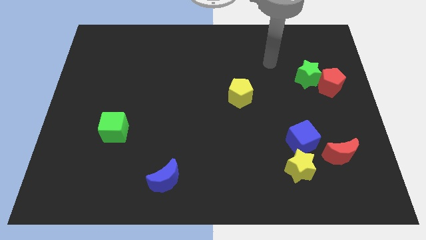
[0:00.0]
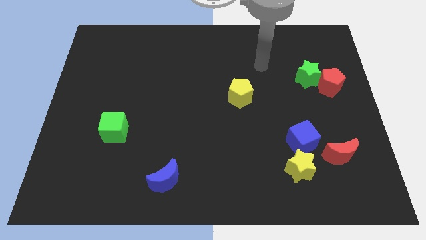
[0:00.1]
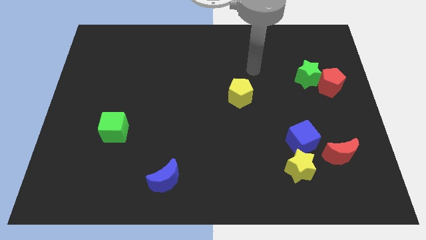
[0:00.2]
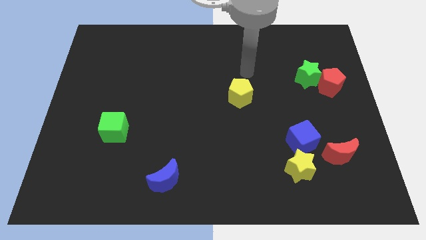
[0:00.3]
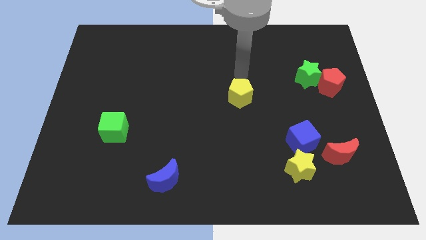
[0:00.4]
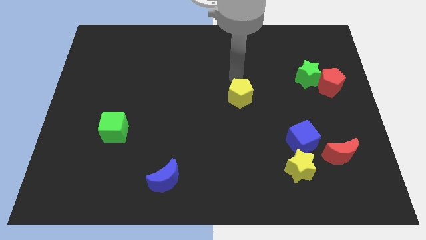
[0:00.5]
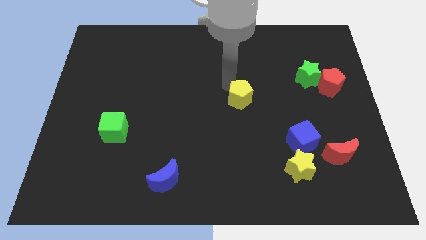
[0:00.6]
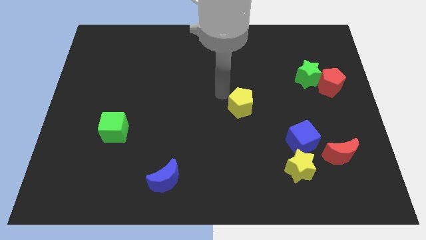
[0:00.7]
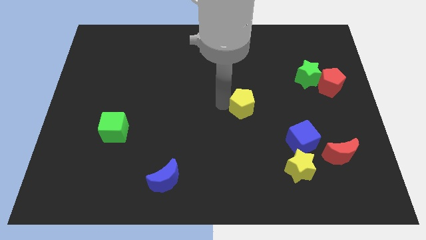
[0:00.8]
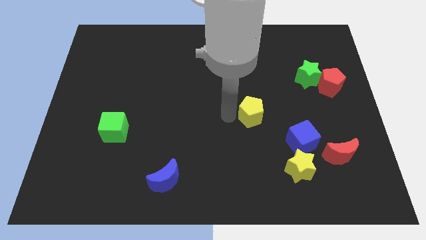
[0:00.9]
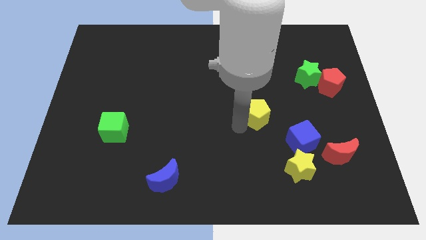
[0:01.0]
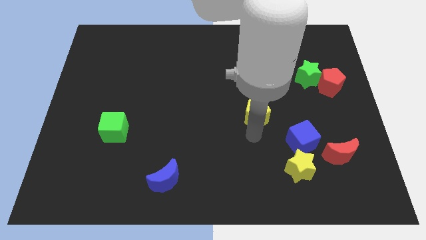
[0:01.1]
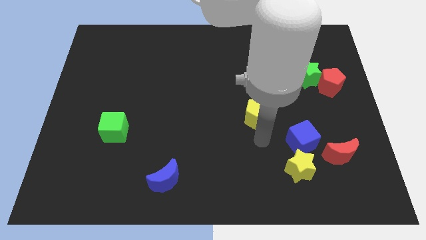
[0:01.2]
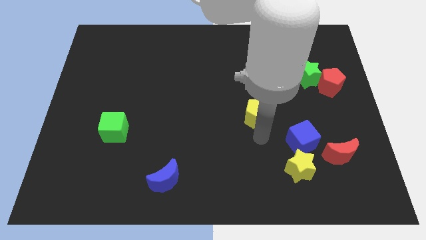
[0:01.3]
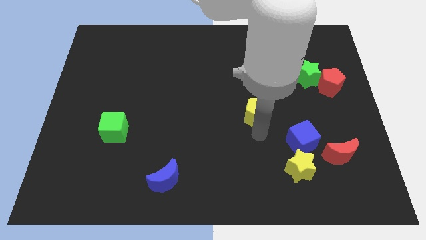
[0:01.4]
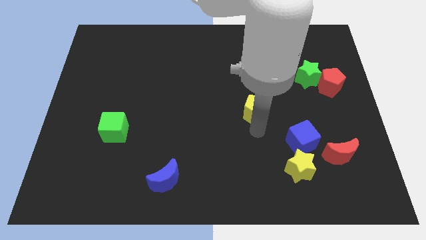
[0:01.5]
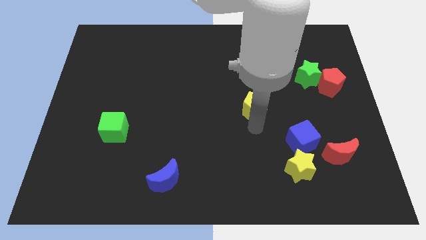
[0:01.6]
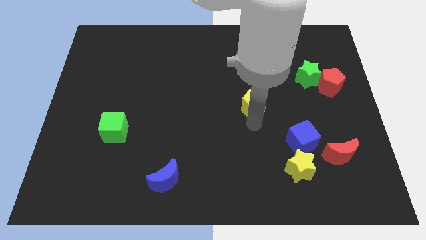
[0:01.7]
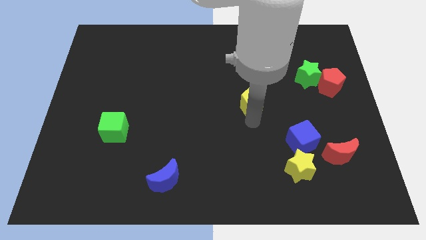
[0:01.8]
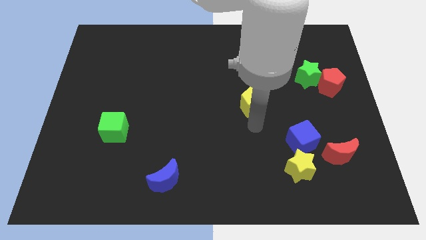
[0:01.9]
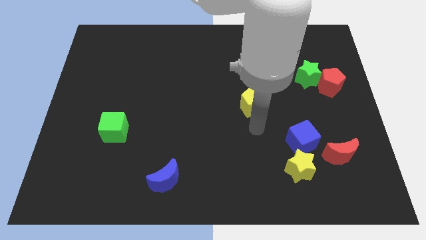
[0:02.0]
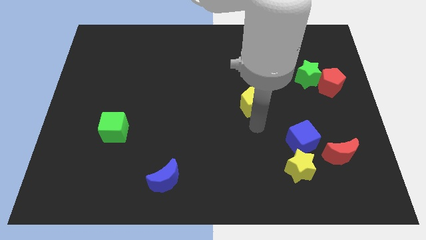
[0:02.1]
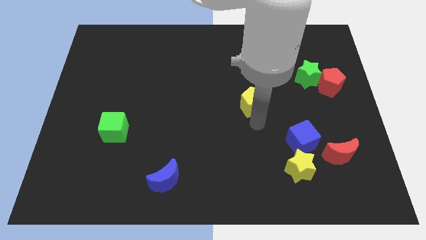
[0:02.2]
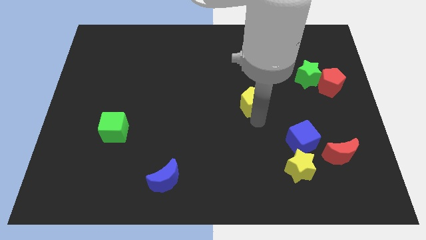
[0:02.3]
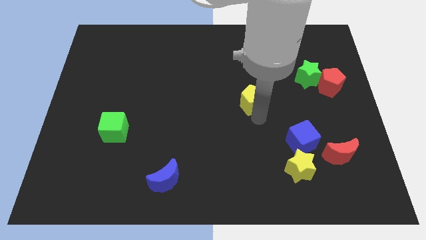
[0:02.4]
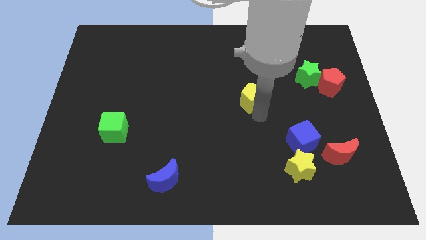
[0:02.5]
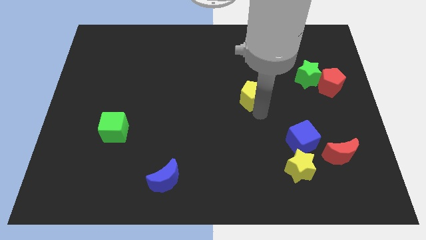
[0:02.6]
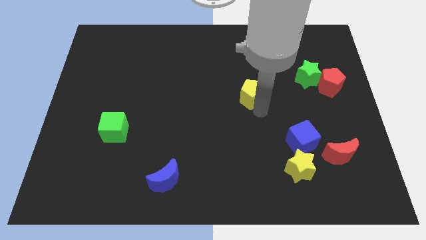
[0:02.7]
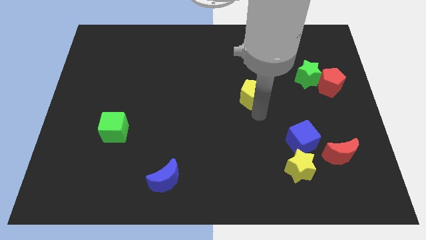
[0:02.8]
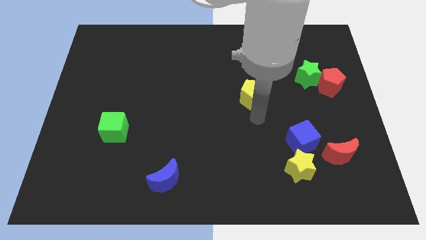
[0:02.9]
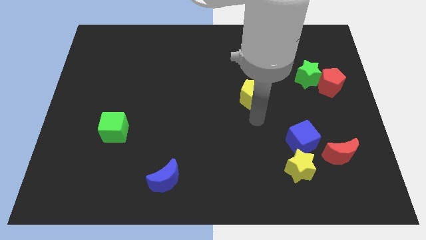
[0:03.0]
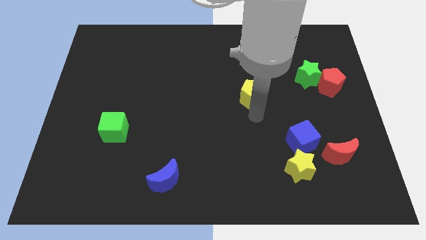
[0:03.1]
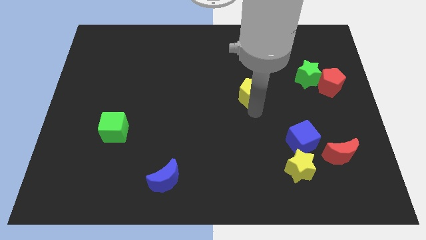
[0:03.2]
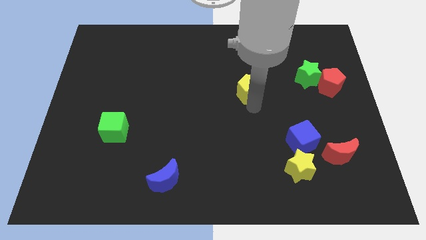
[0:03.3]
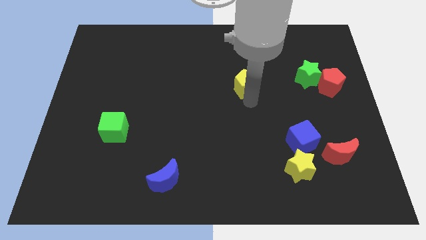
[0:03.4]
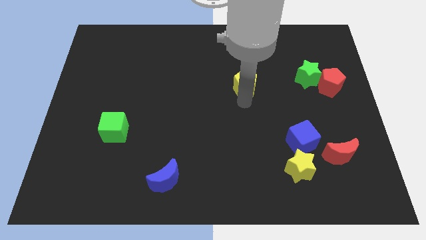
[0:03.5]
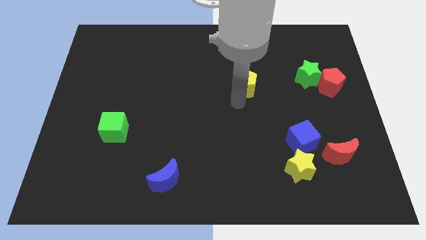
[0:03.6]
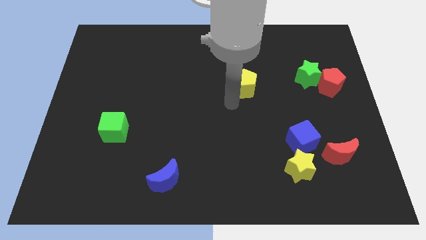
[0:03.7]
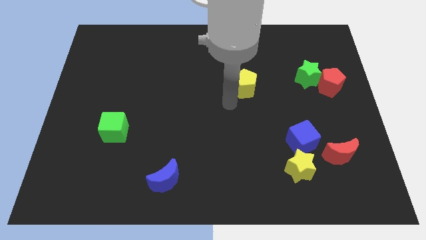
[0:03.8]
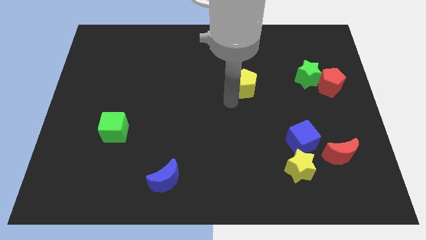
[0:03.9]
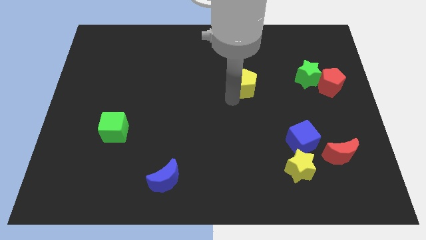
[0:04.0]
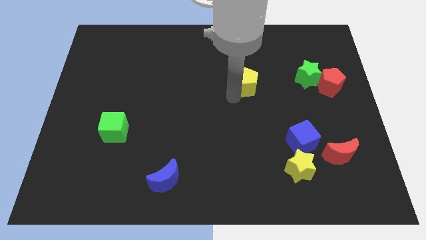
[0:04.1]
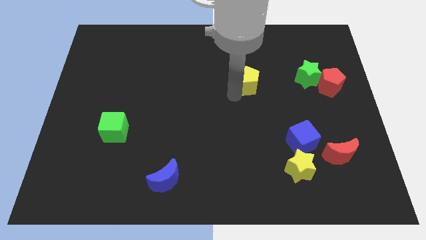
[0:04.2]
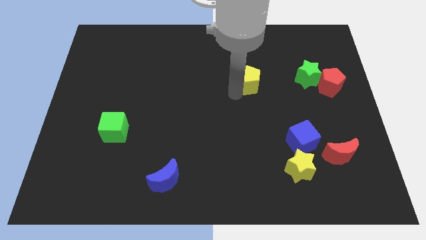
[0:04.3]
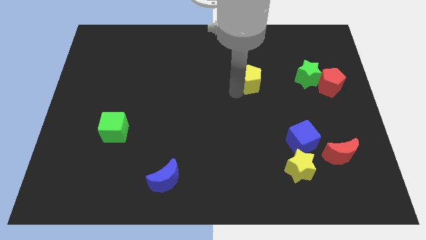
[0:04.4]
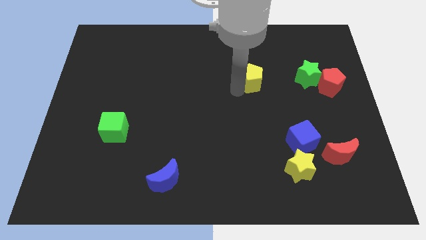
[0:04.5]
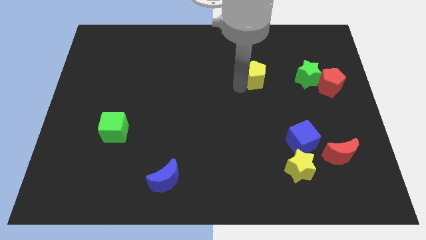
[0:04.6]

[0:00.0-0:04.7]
slightly move the yellow pentagon diagonally up and right

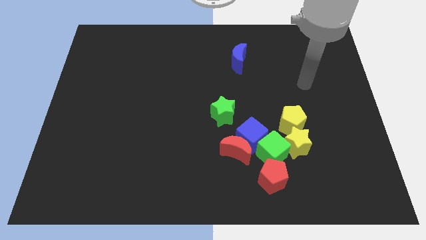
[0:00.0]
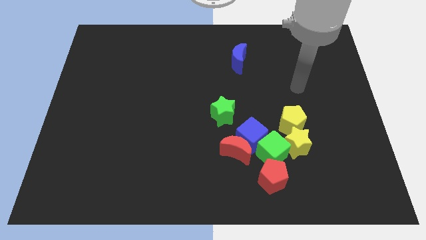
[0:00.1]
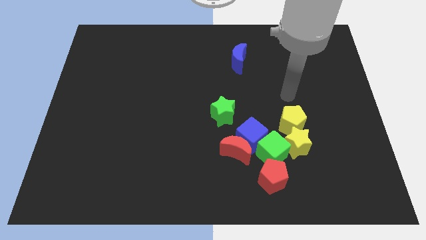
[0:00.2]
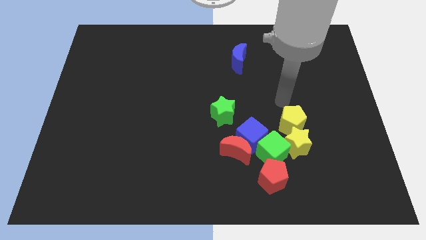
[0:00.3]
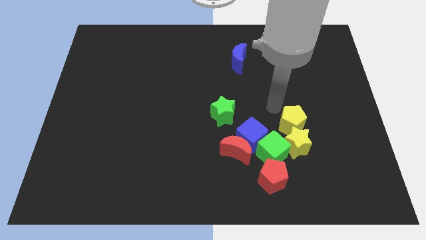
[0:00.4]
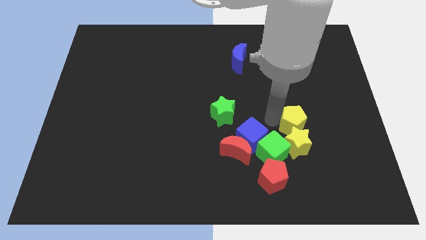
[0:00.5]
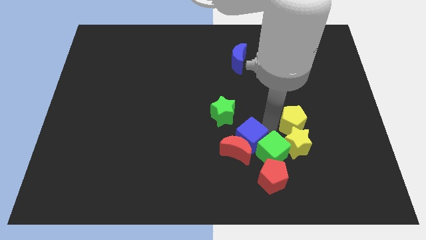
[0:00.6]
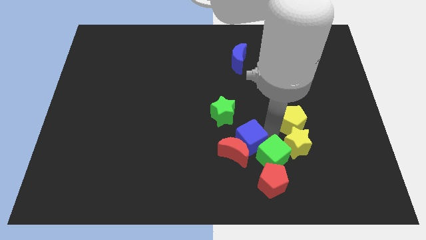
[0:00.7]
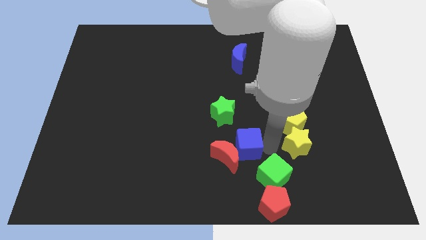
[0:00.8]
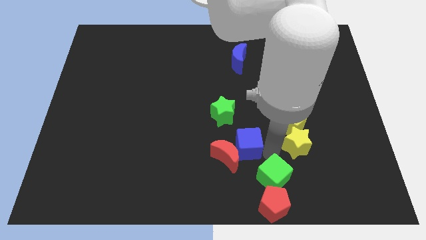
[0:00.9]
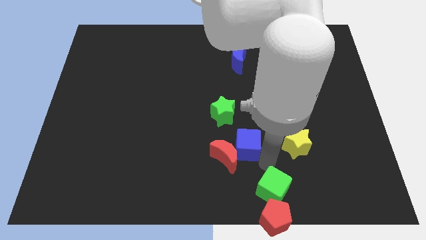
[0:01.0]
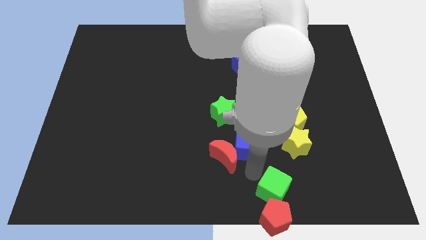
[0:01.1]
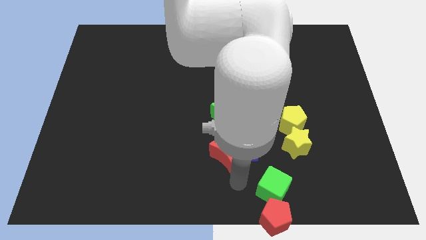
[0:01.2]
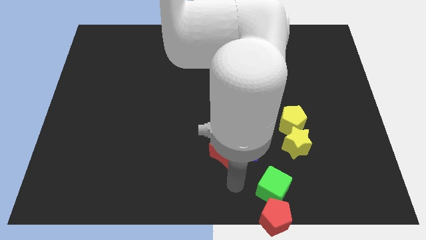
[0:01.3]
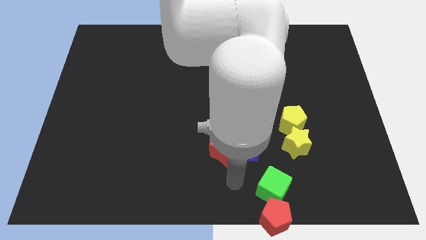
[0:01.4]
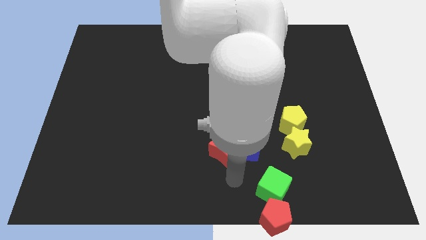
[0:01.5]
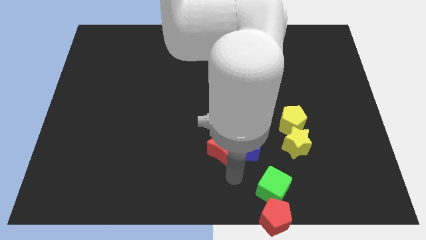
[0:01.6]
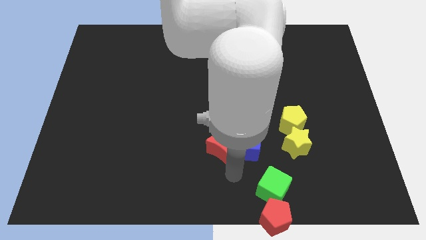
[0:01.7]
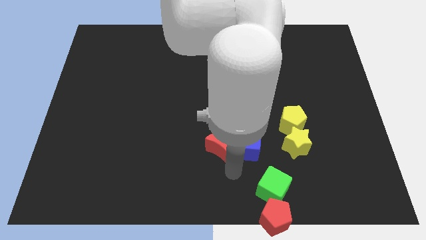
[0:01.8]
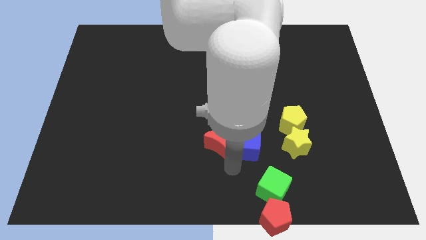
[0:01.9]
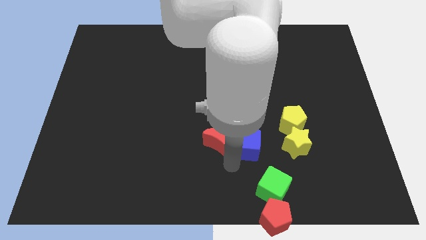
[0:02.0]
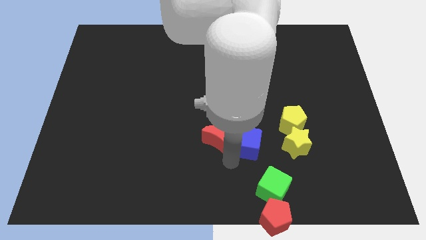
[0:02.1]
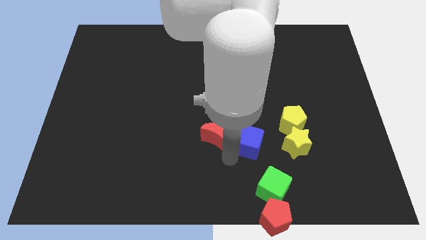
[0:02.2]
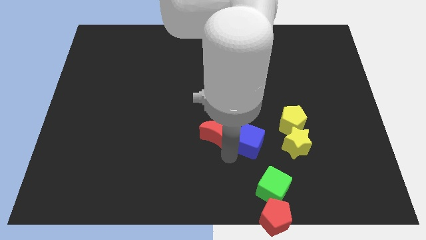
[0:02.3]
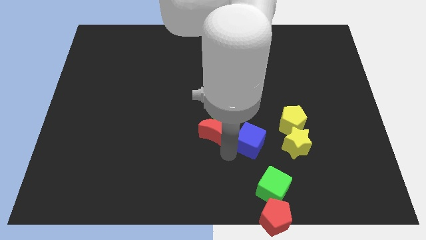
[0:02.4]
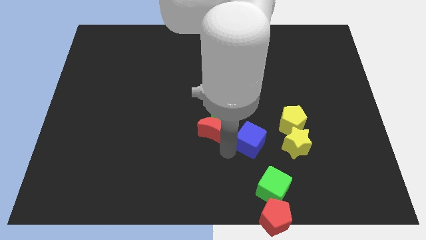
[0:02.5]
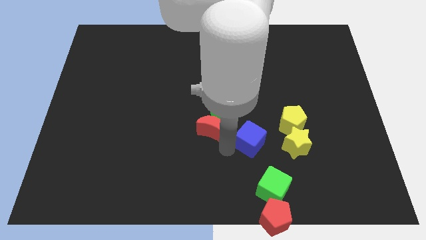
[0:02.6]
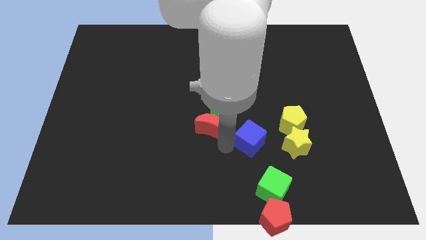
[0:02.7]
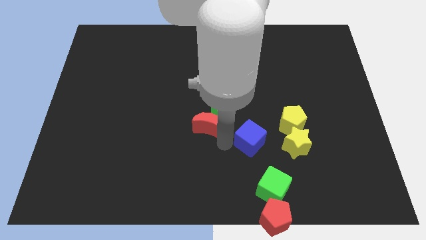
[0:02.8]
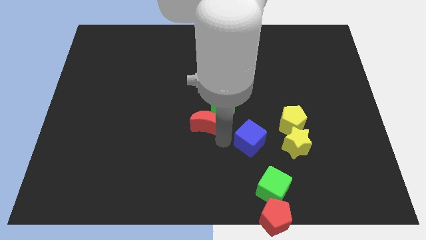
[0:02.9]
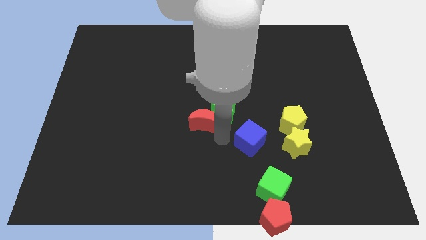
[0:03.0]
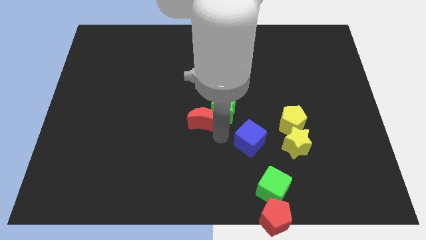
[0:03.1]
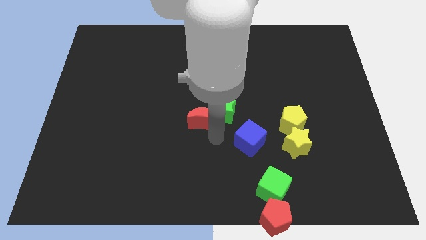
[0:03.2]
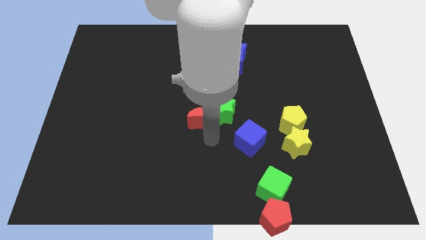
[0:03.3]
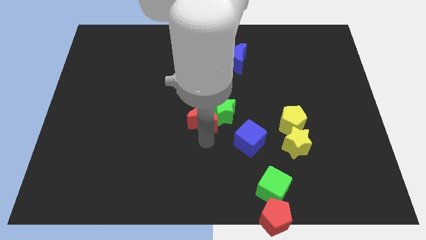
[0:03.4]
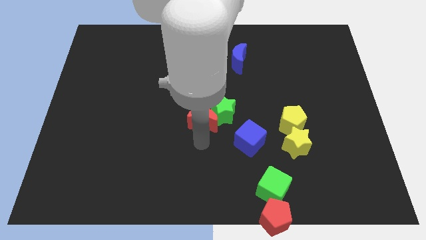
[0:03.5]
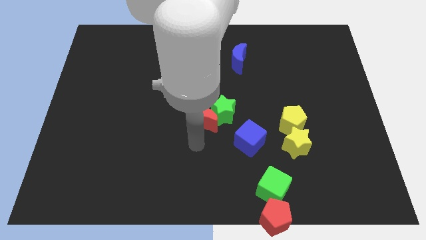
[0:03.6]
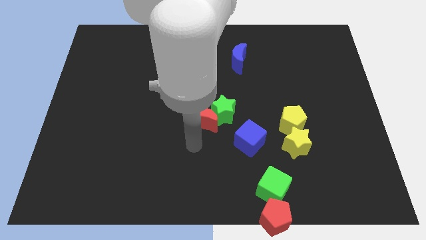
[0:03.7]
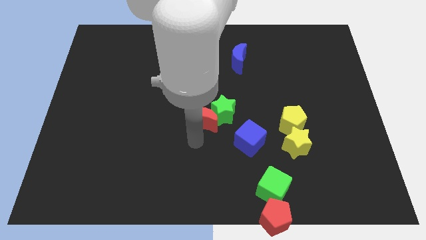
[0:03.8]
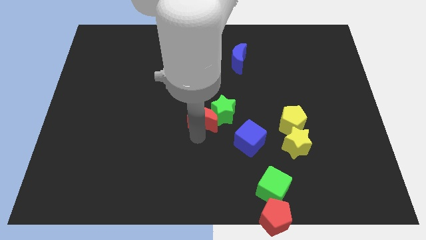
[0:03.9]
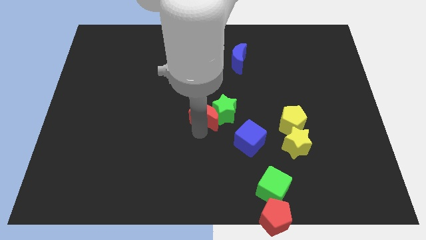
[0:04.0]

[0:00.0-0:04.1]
slightly push the red moon up
